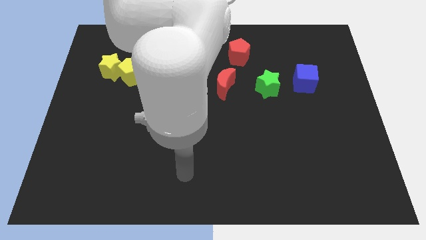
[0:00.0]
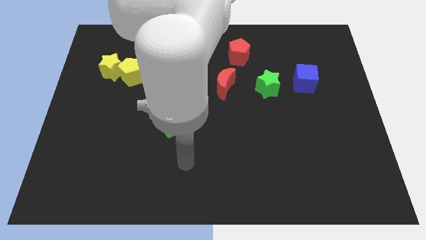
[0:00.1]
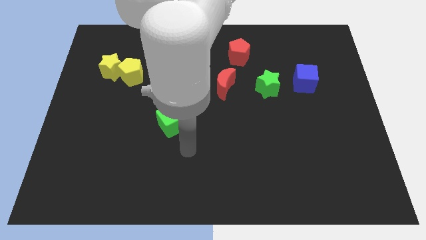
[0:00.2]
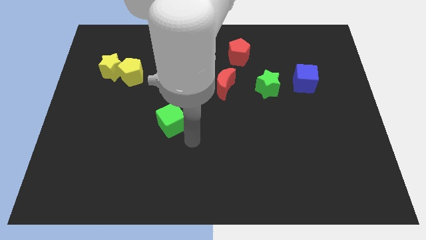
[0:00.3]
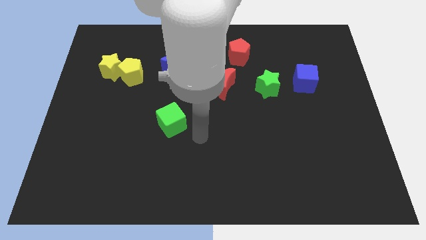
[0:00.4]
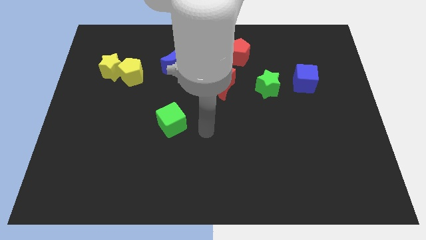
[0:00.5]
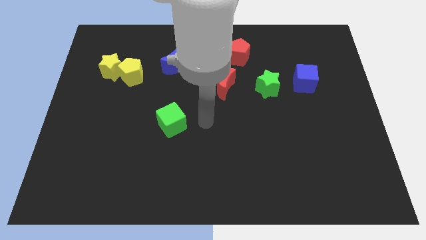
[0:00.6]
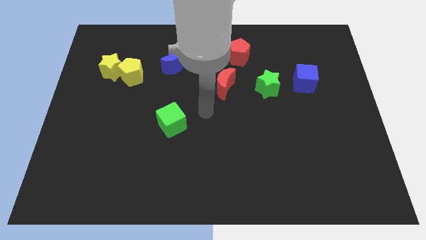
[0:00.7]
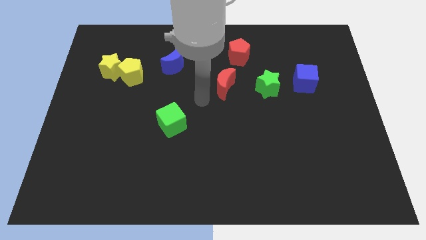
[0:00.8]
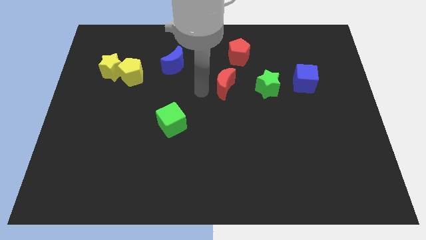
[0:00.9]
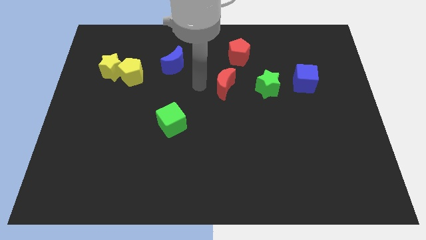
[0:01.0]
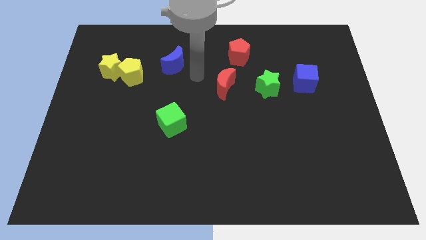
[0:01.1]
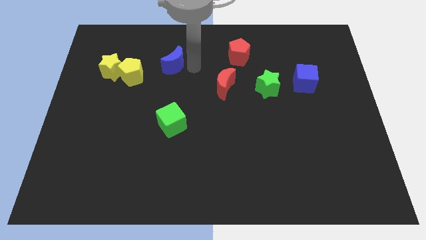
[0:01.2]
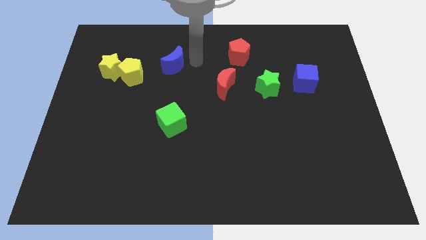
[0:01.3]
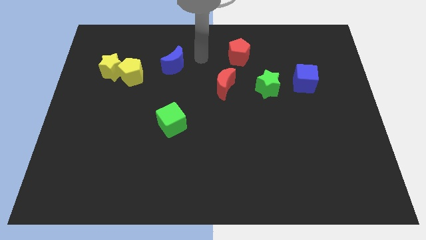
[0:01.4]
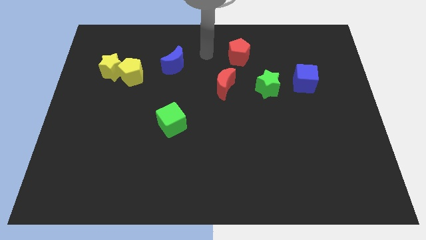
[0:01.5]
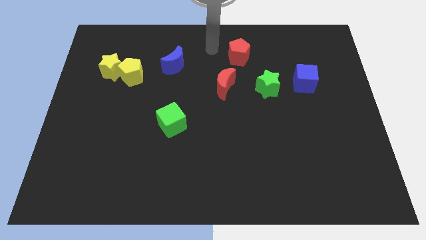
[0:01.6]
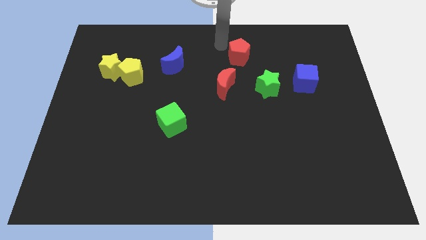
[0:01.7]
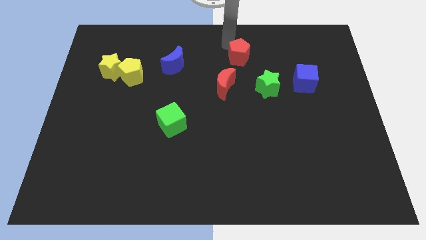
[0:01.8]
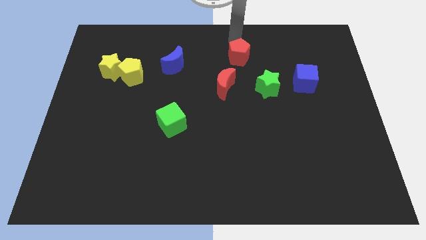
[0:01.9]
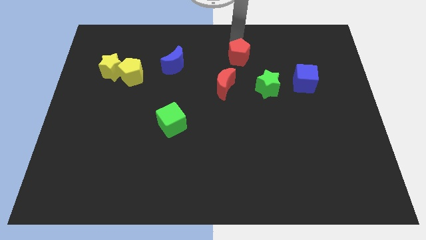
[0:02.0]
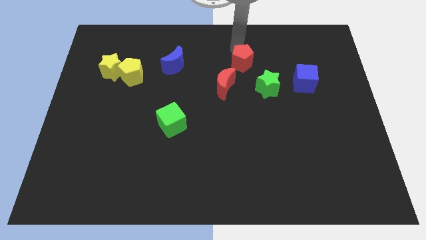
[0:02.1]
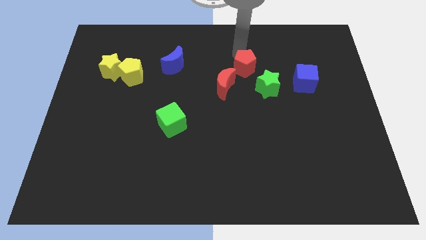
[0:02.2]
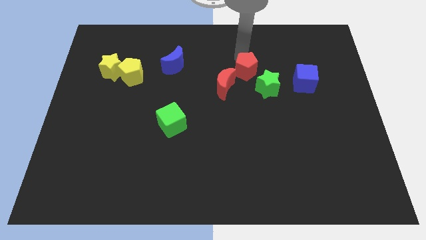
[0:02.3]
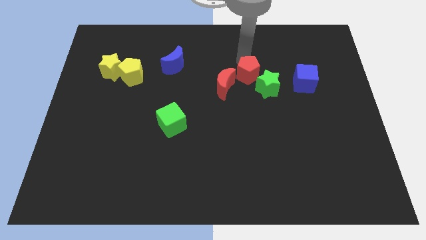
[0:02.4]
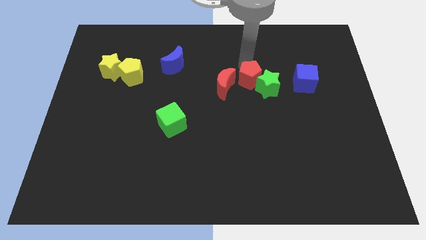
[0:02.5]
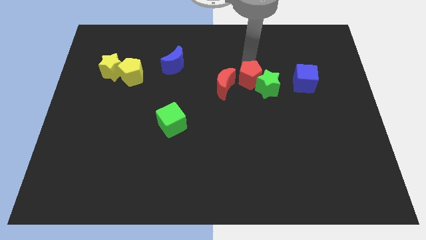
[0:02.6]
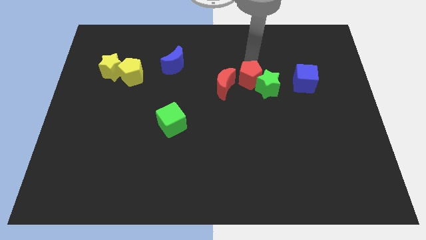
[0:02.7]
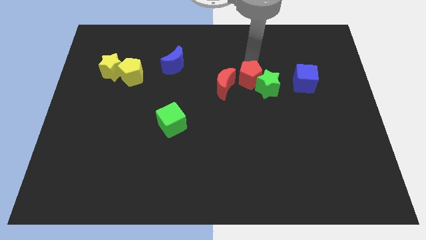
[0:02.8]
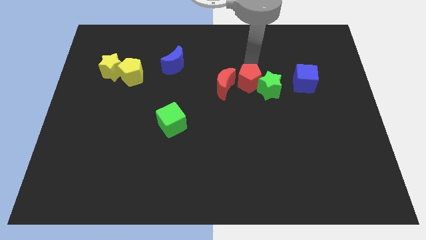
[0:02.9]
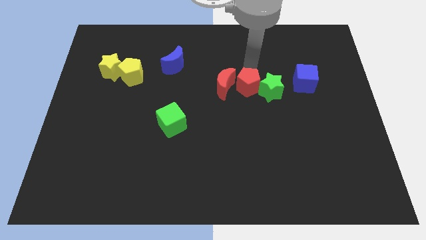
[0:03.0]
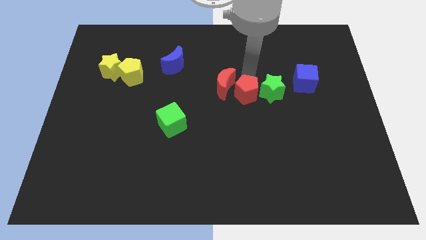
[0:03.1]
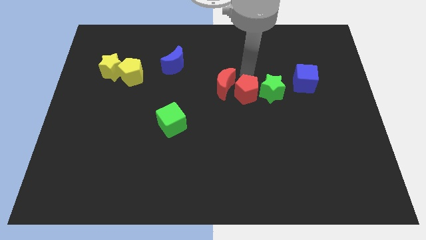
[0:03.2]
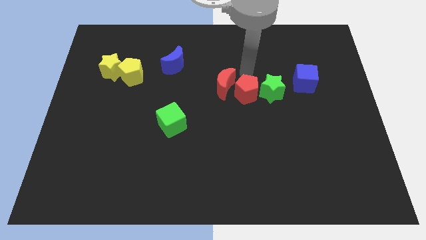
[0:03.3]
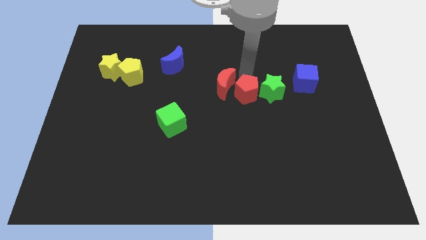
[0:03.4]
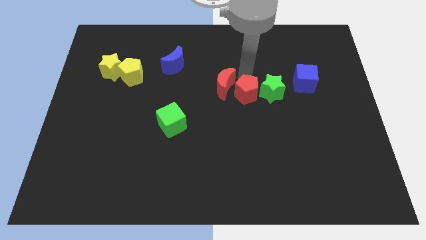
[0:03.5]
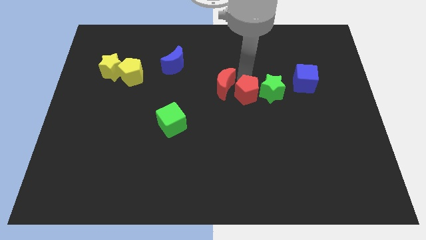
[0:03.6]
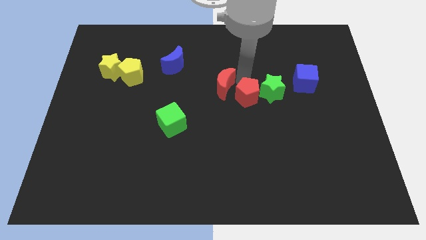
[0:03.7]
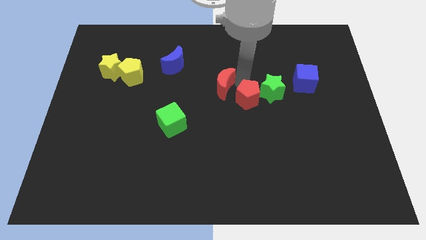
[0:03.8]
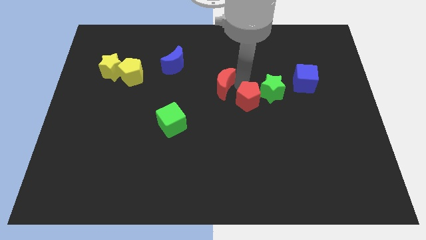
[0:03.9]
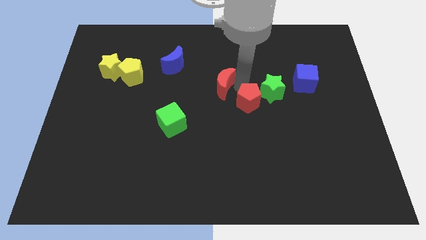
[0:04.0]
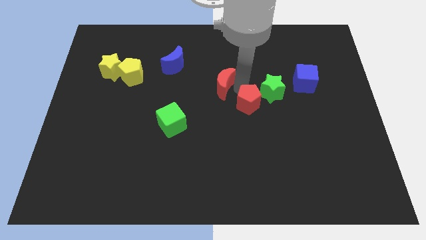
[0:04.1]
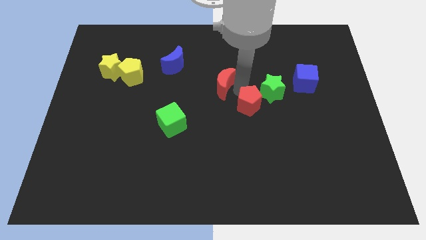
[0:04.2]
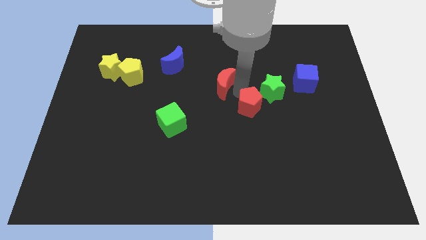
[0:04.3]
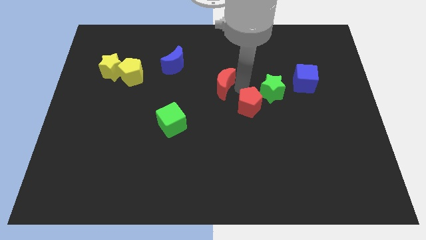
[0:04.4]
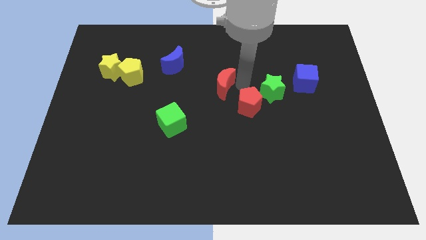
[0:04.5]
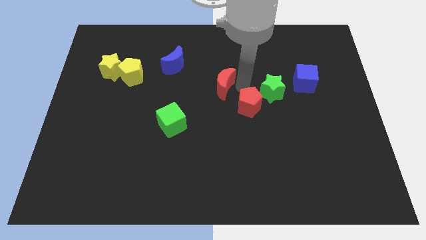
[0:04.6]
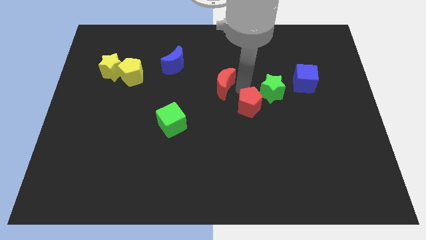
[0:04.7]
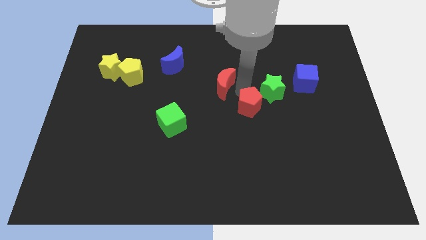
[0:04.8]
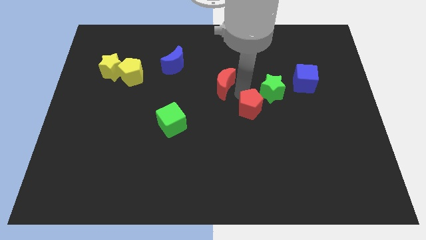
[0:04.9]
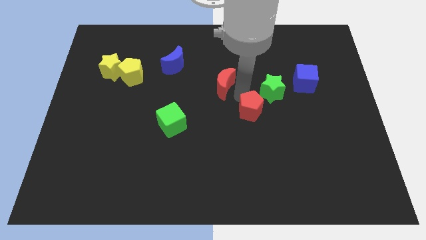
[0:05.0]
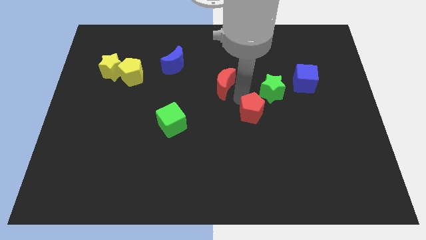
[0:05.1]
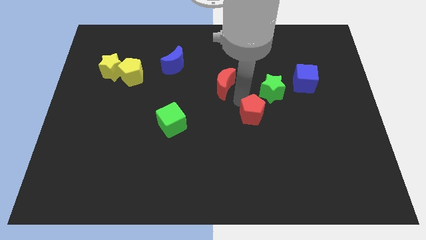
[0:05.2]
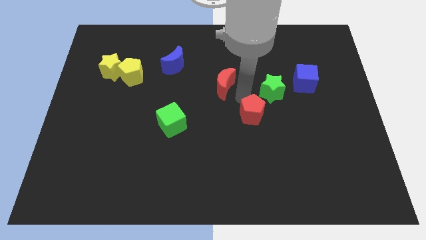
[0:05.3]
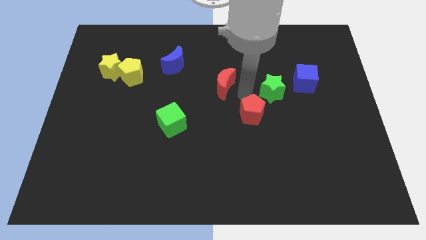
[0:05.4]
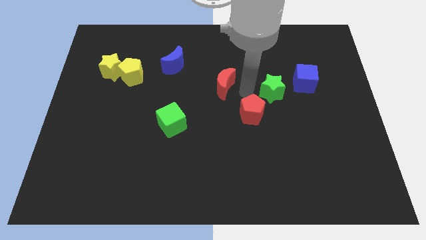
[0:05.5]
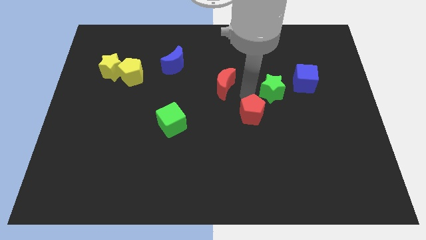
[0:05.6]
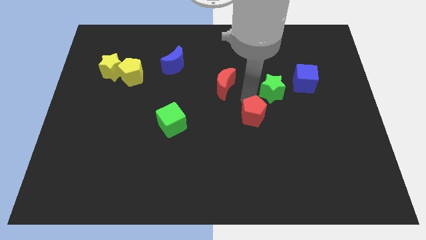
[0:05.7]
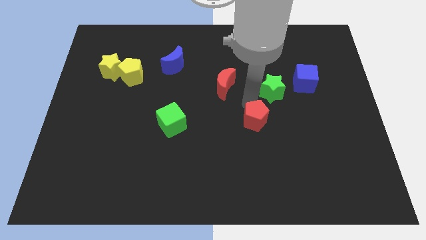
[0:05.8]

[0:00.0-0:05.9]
slide the red pentagon down

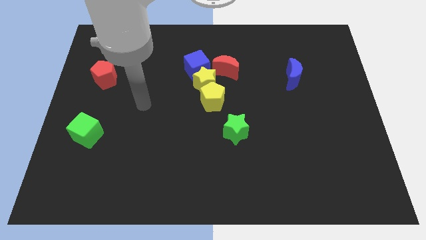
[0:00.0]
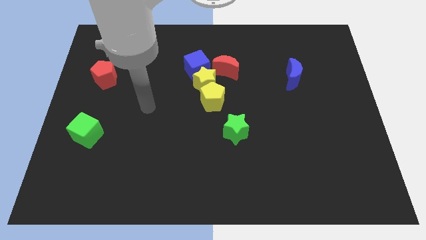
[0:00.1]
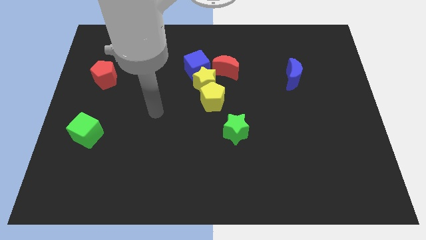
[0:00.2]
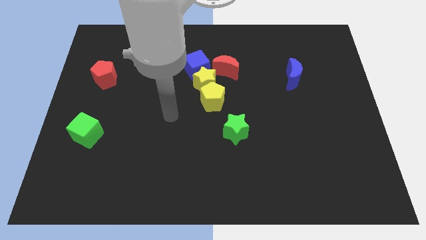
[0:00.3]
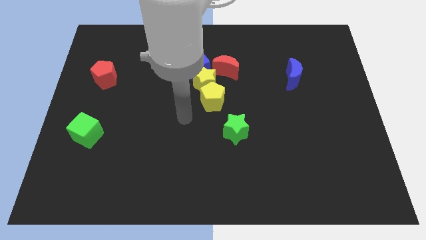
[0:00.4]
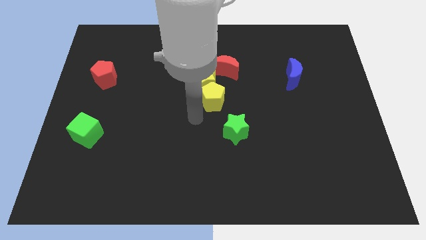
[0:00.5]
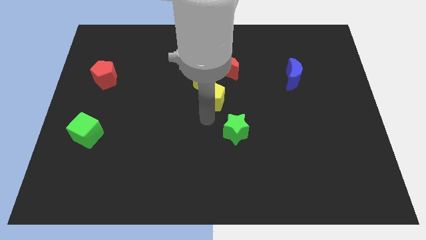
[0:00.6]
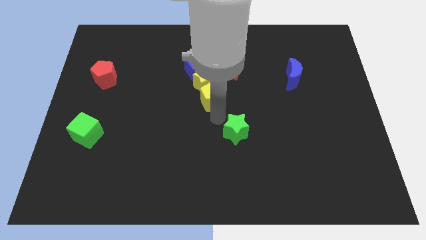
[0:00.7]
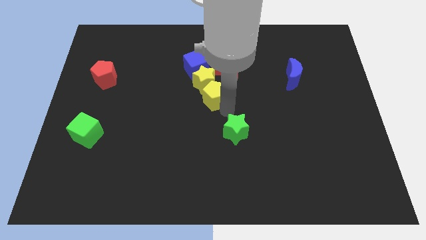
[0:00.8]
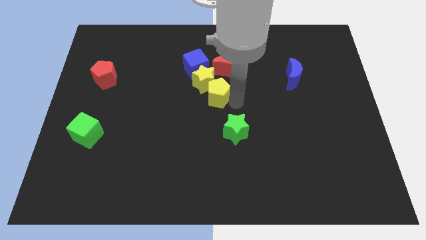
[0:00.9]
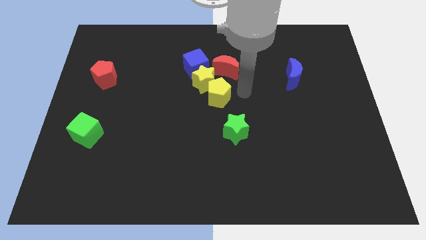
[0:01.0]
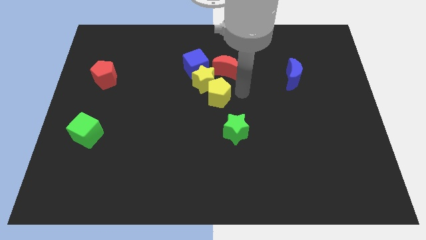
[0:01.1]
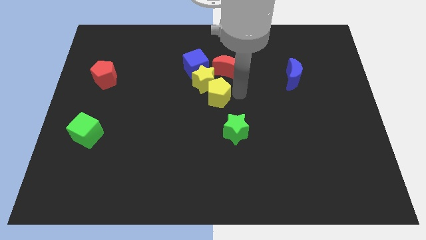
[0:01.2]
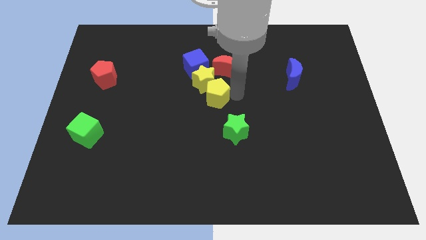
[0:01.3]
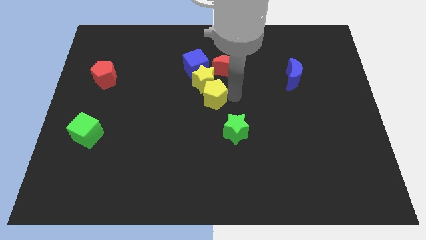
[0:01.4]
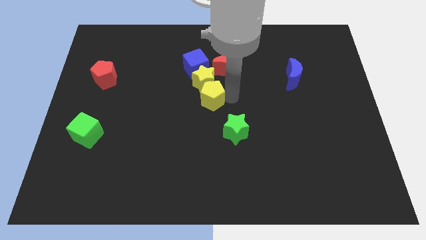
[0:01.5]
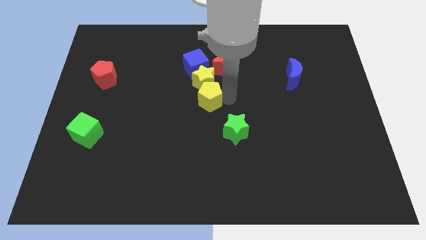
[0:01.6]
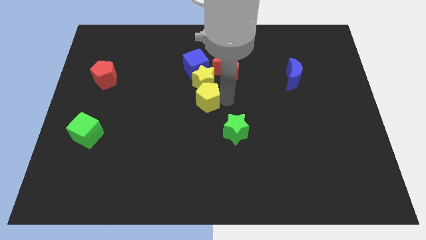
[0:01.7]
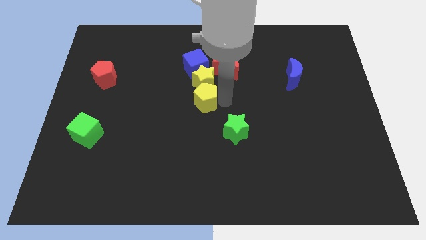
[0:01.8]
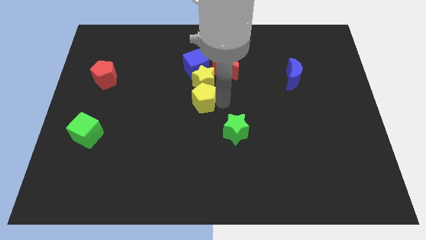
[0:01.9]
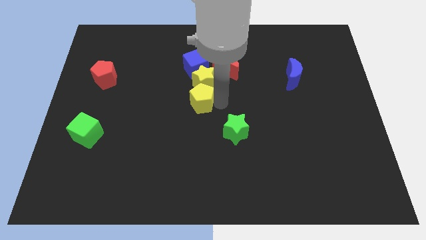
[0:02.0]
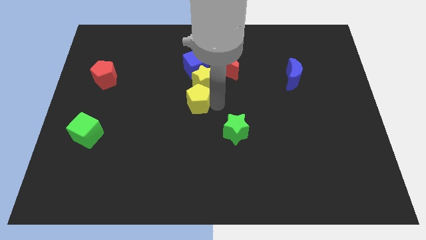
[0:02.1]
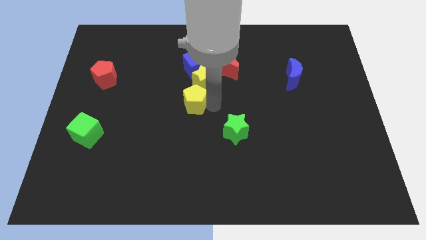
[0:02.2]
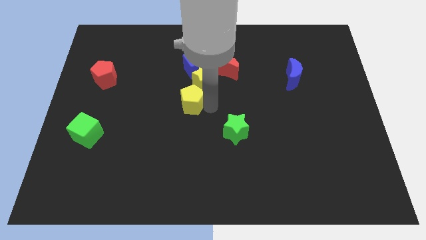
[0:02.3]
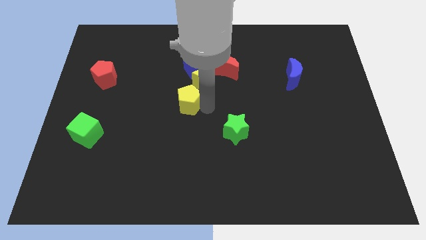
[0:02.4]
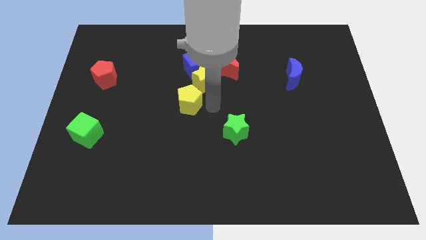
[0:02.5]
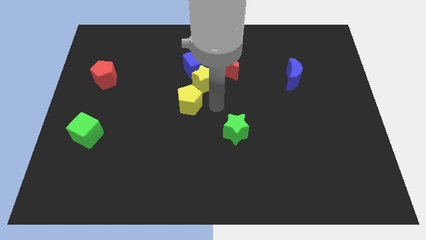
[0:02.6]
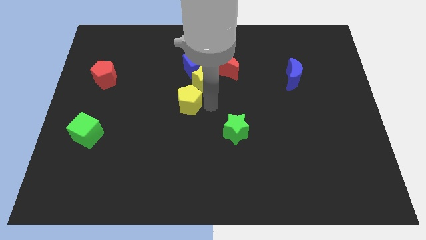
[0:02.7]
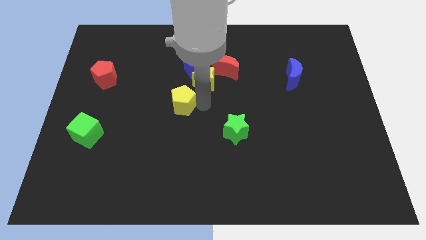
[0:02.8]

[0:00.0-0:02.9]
slightly push the yellow pentagon to the left
